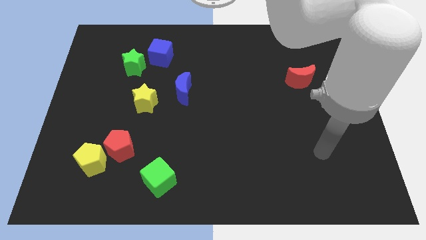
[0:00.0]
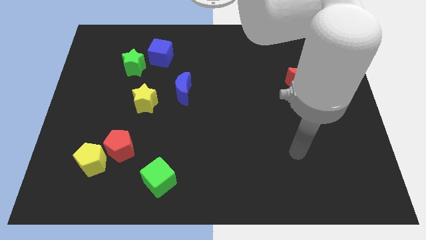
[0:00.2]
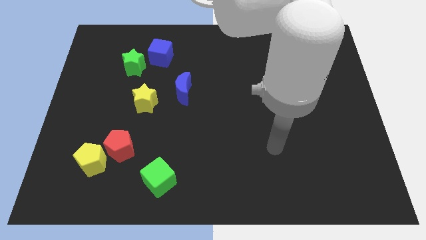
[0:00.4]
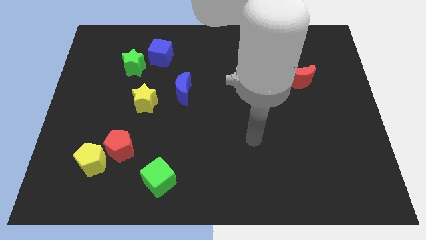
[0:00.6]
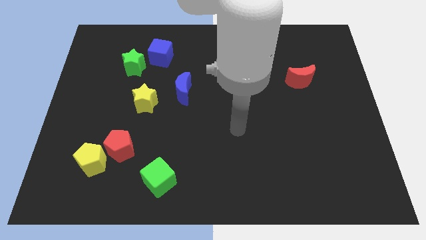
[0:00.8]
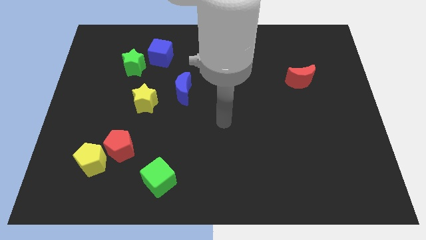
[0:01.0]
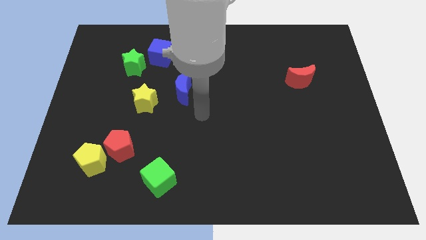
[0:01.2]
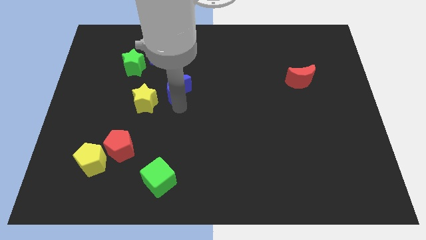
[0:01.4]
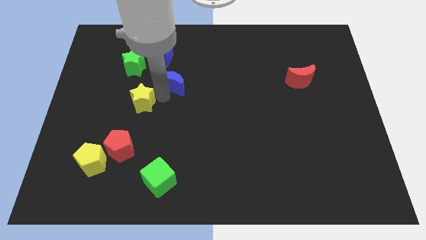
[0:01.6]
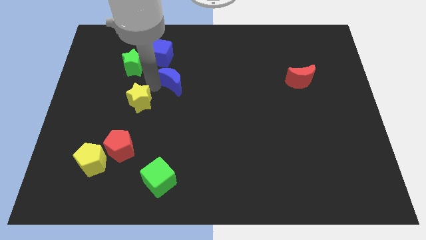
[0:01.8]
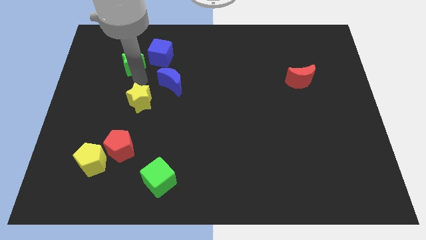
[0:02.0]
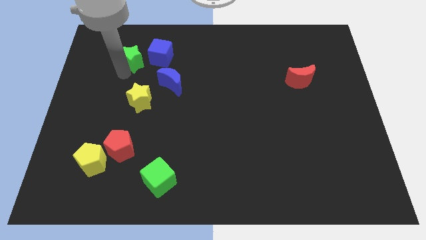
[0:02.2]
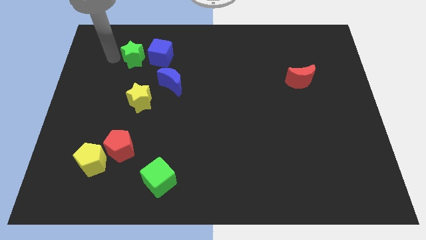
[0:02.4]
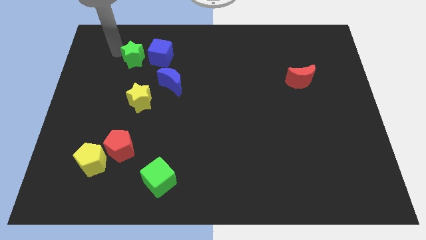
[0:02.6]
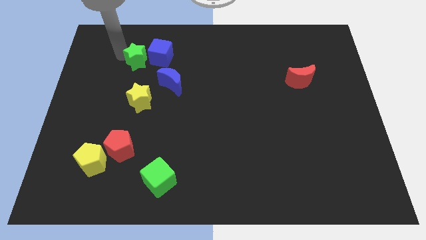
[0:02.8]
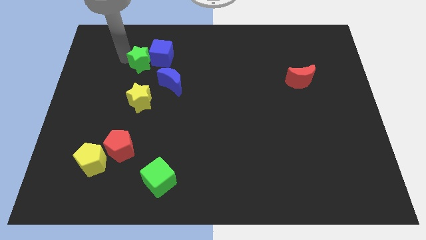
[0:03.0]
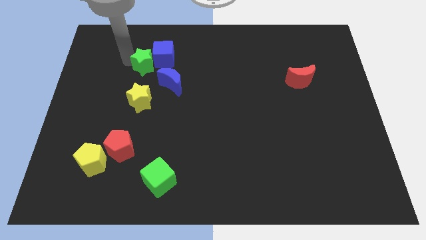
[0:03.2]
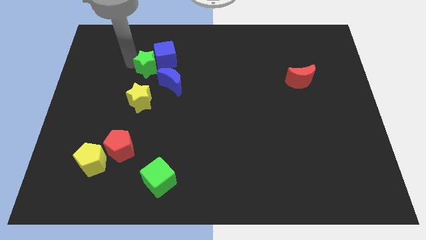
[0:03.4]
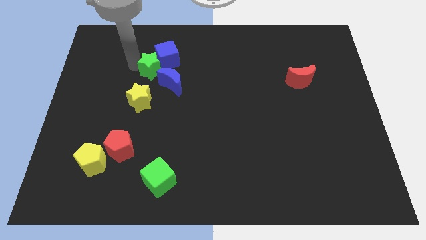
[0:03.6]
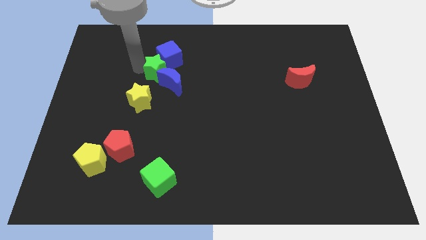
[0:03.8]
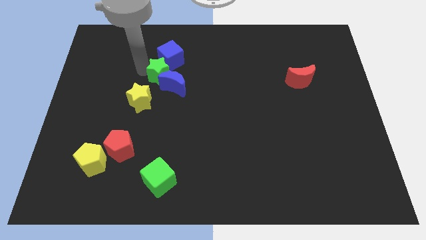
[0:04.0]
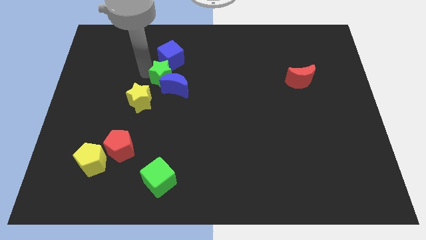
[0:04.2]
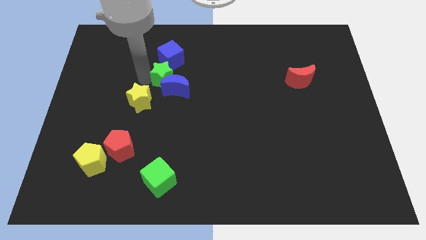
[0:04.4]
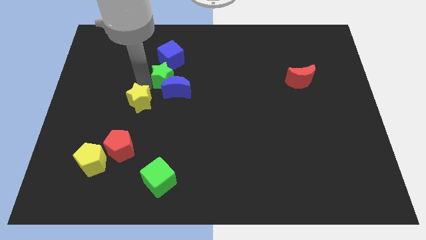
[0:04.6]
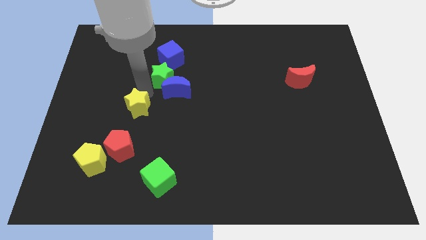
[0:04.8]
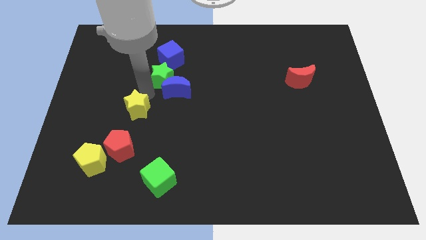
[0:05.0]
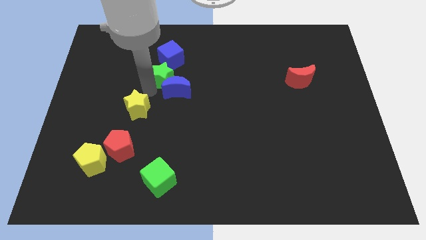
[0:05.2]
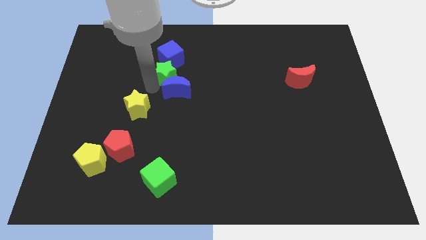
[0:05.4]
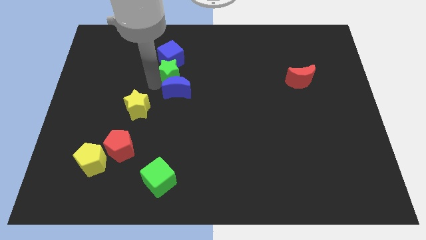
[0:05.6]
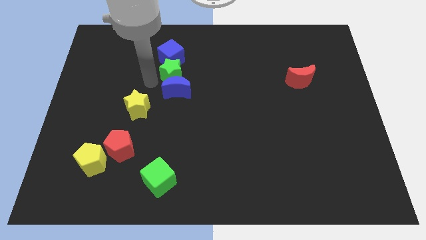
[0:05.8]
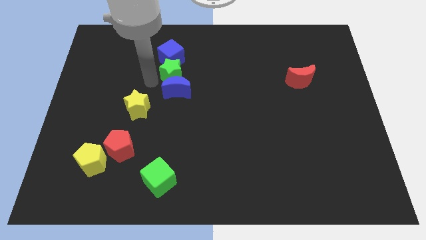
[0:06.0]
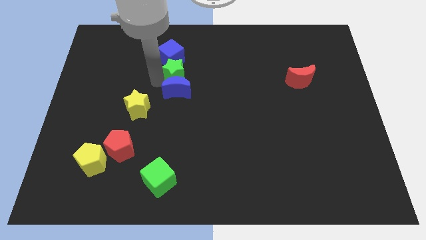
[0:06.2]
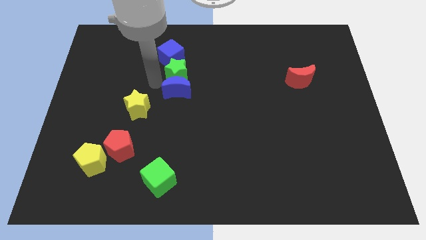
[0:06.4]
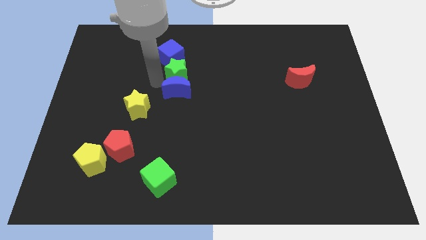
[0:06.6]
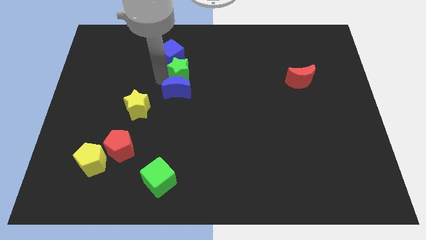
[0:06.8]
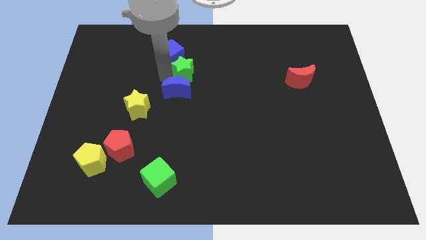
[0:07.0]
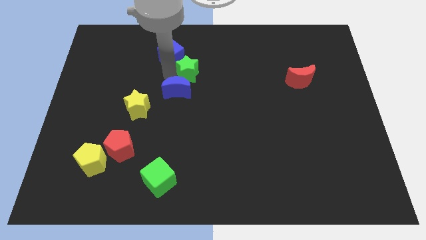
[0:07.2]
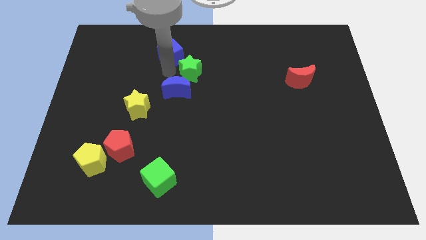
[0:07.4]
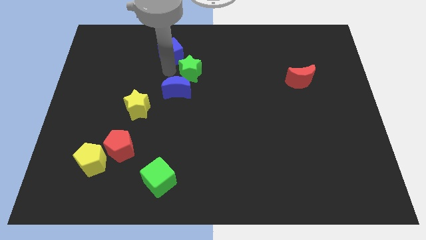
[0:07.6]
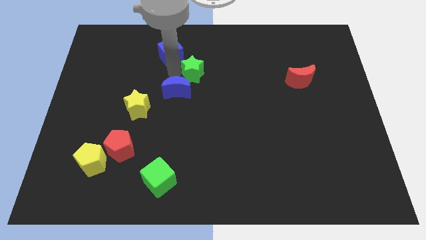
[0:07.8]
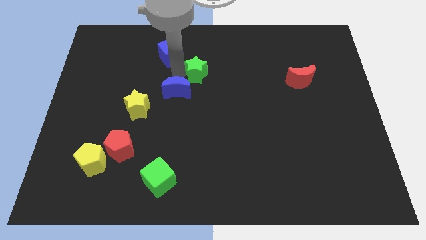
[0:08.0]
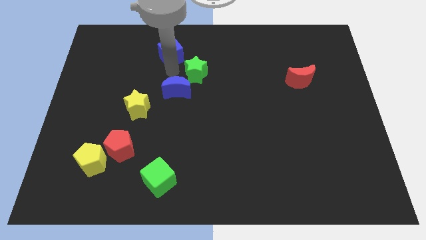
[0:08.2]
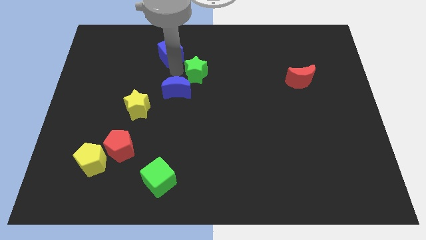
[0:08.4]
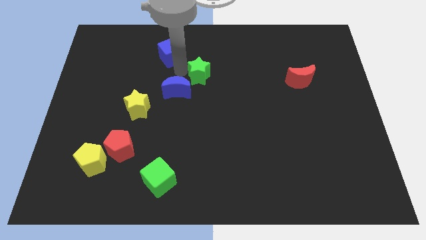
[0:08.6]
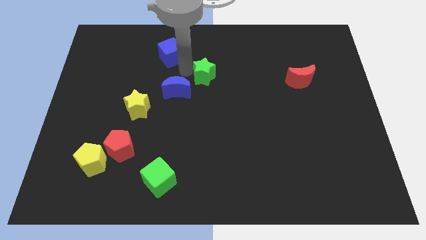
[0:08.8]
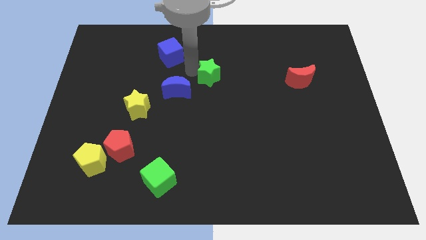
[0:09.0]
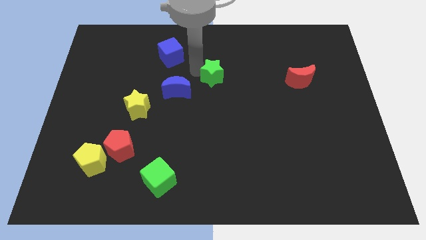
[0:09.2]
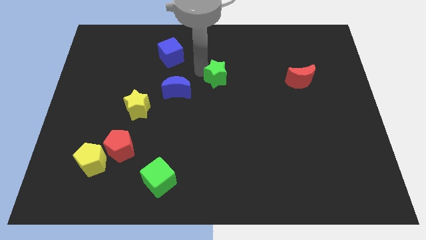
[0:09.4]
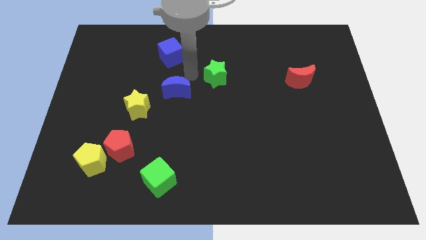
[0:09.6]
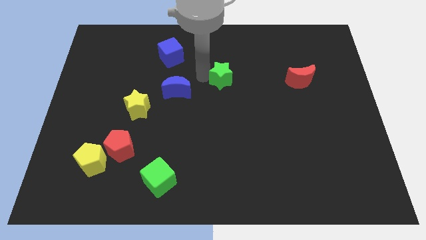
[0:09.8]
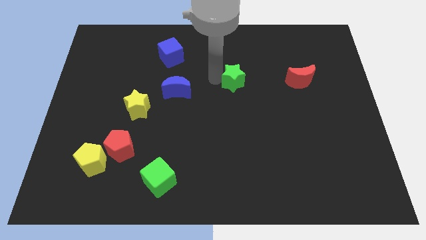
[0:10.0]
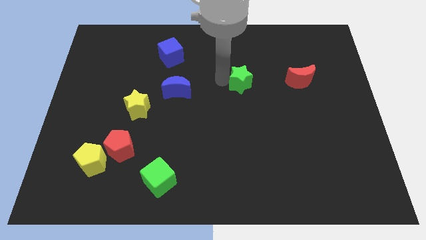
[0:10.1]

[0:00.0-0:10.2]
push the green star just left of the red moon

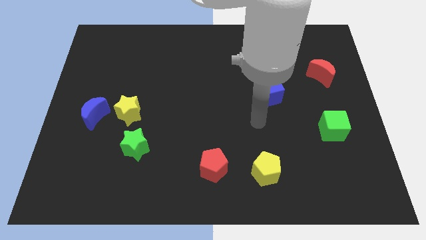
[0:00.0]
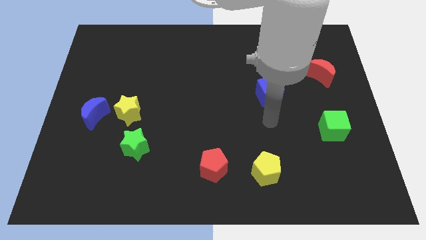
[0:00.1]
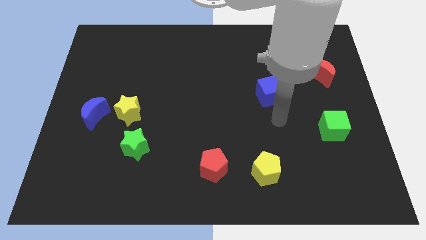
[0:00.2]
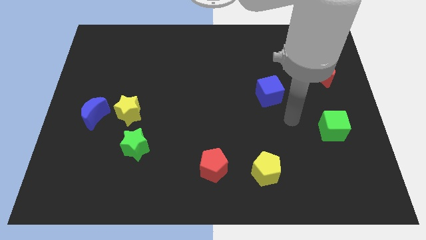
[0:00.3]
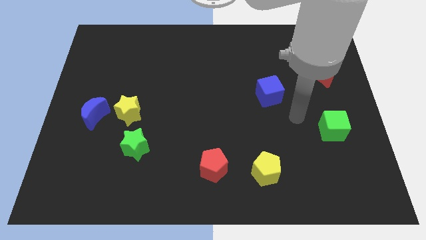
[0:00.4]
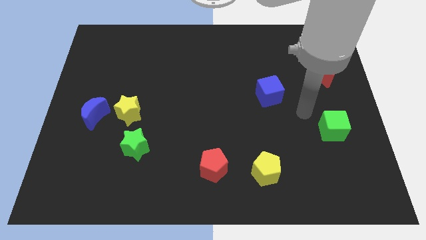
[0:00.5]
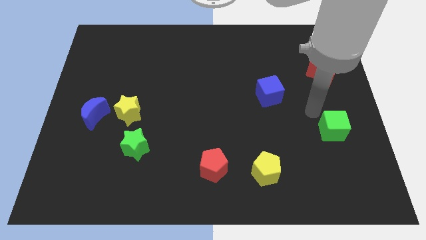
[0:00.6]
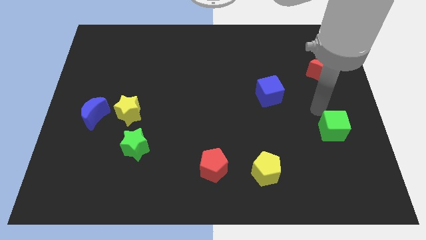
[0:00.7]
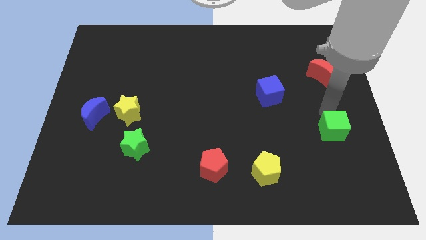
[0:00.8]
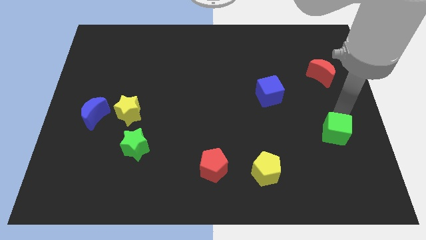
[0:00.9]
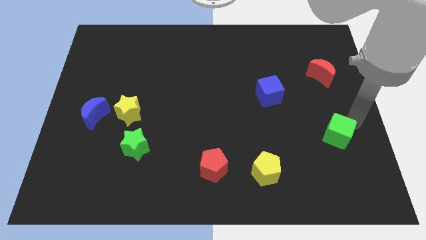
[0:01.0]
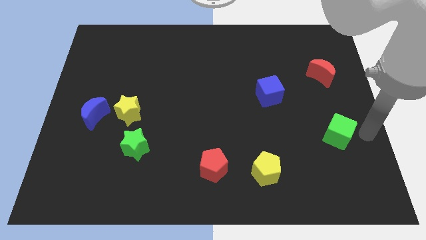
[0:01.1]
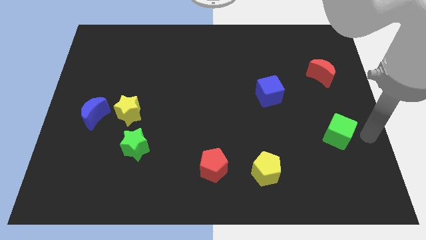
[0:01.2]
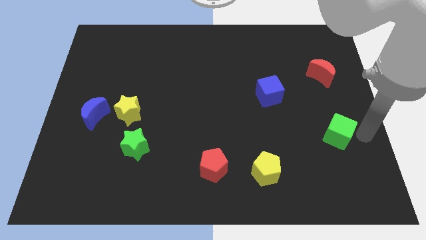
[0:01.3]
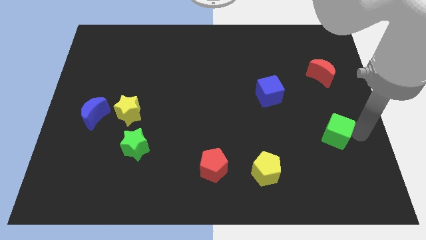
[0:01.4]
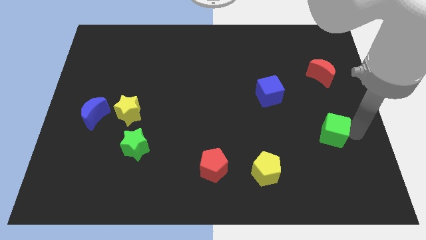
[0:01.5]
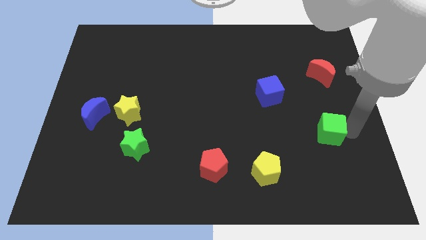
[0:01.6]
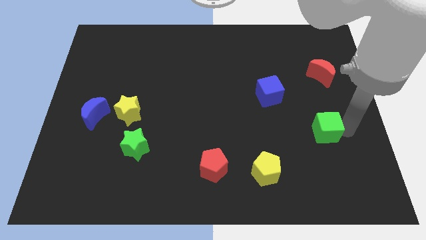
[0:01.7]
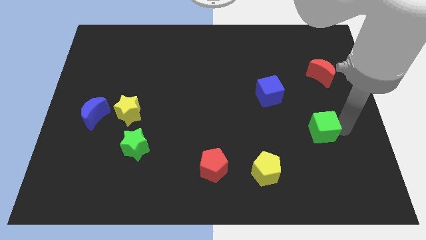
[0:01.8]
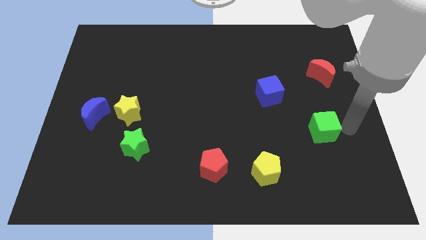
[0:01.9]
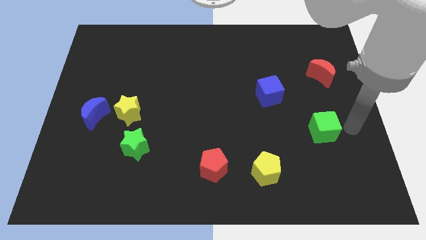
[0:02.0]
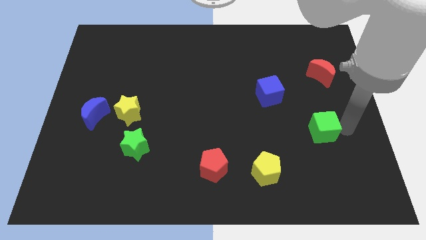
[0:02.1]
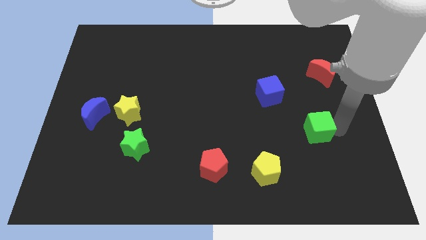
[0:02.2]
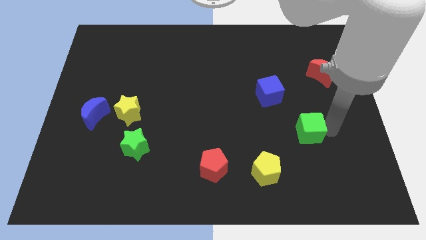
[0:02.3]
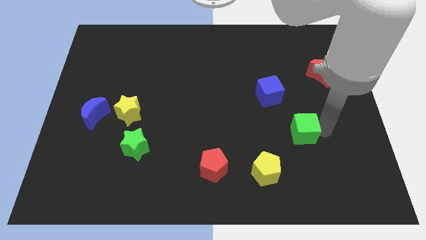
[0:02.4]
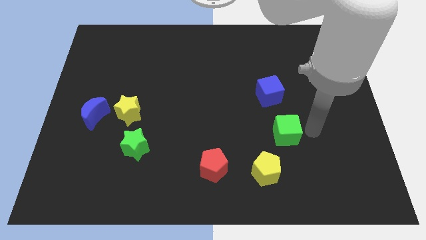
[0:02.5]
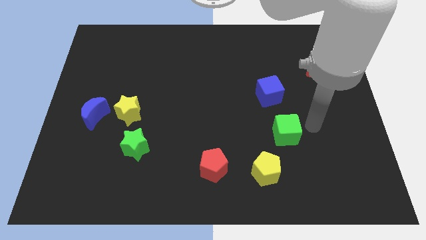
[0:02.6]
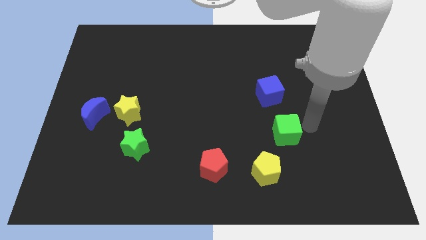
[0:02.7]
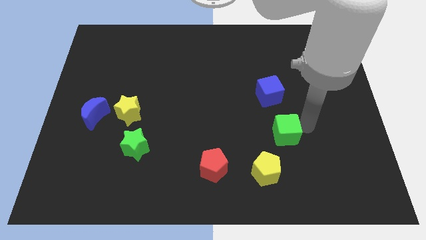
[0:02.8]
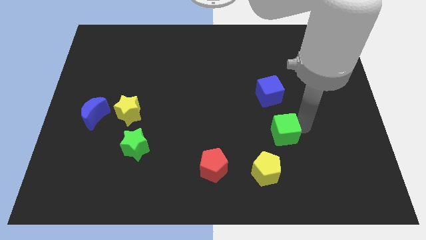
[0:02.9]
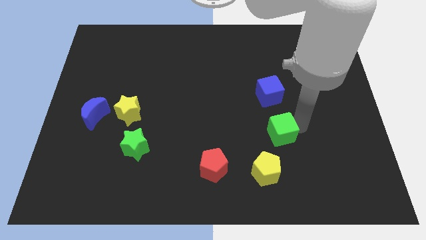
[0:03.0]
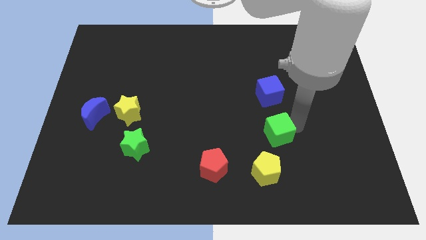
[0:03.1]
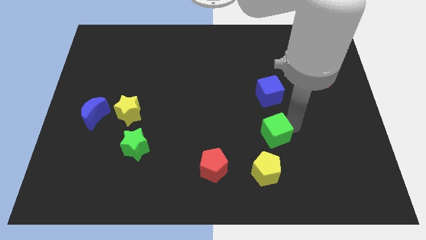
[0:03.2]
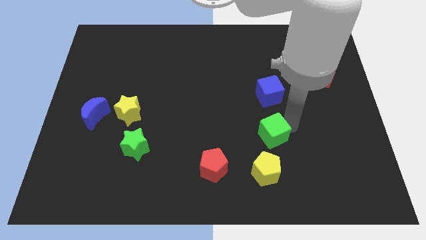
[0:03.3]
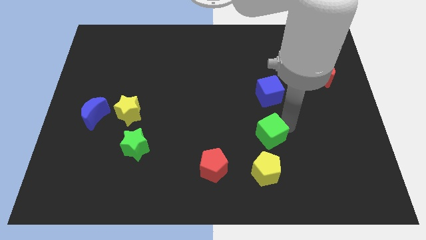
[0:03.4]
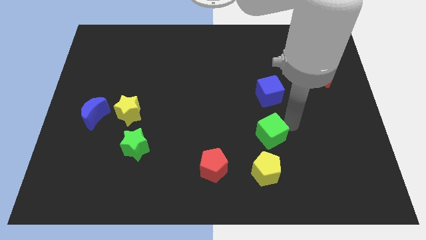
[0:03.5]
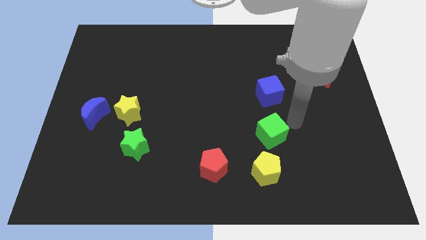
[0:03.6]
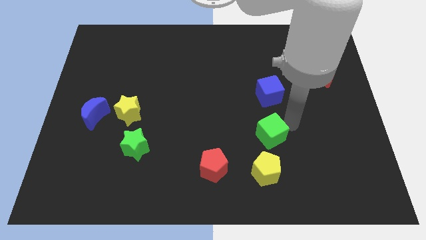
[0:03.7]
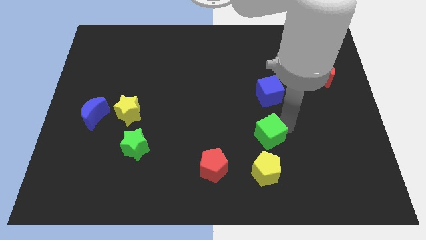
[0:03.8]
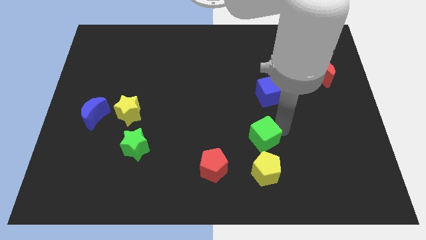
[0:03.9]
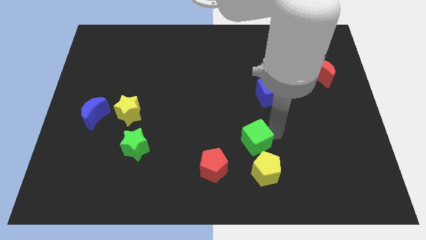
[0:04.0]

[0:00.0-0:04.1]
slide the green cube diagonally up and to the right of the red pentagon
